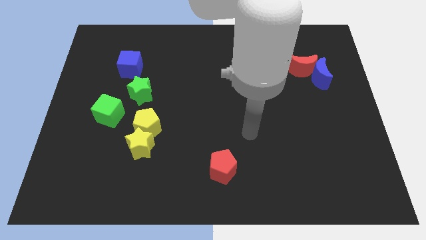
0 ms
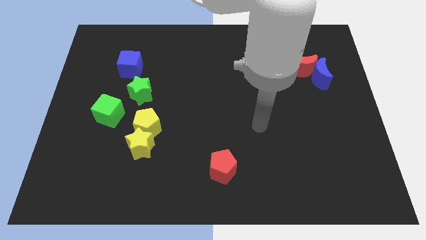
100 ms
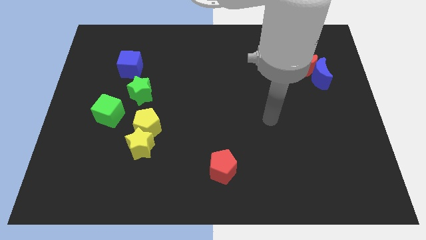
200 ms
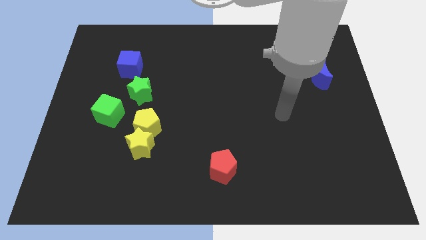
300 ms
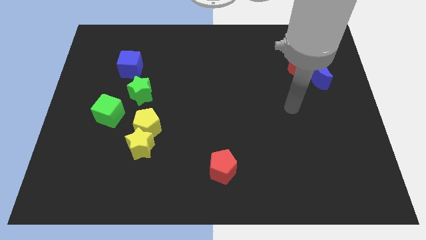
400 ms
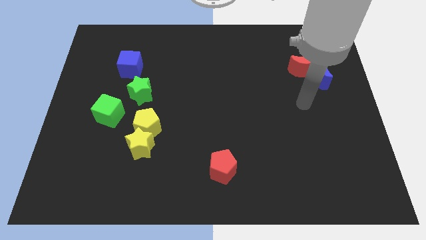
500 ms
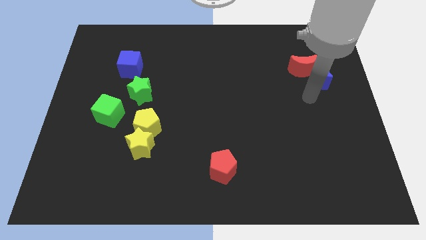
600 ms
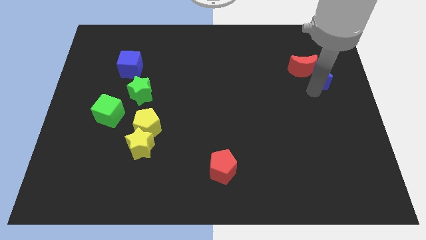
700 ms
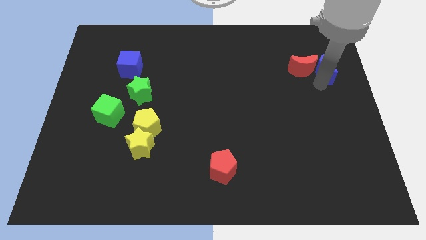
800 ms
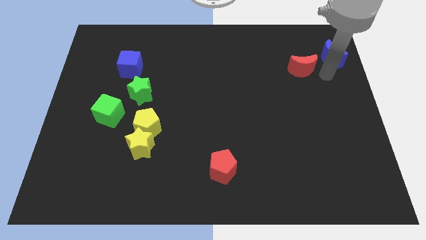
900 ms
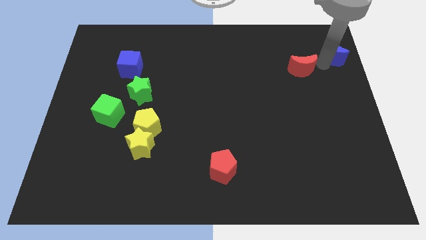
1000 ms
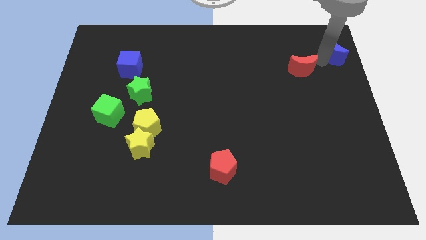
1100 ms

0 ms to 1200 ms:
pull the red moon apart from the blue moon

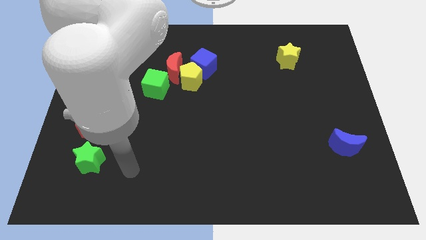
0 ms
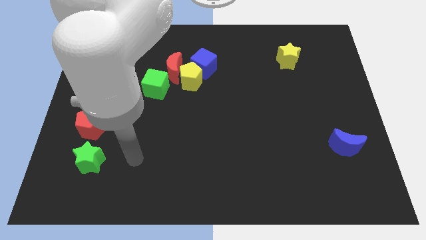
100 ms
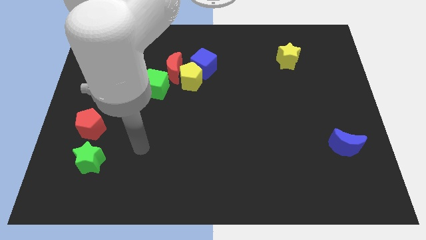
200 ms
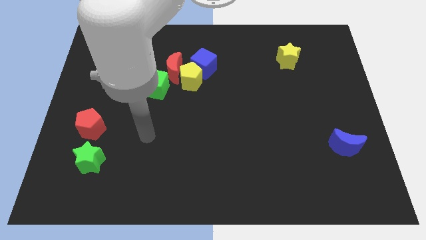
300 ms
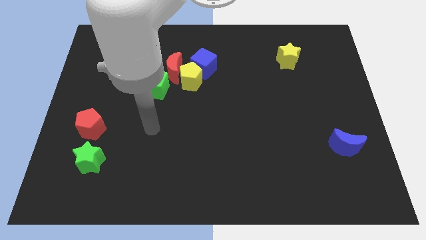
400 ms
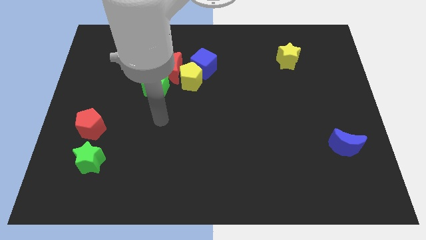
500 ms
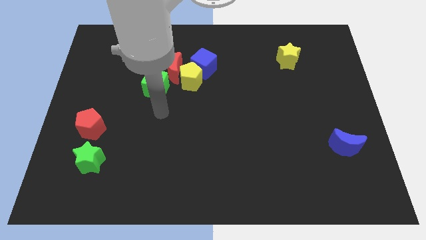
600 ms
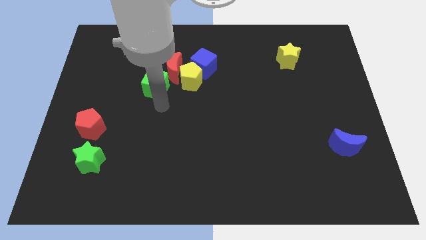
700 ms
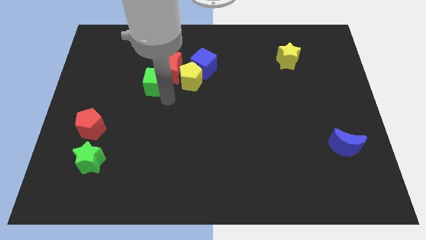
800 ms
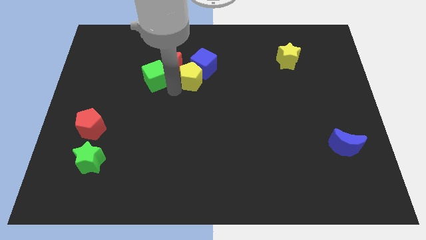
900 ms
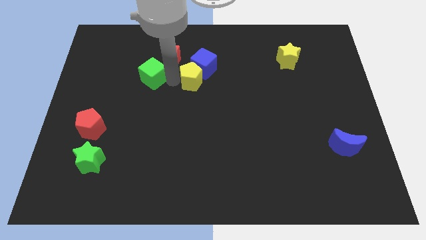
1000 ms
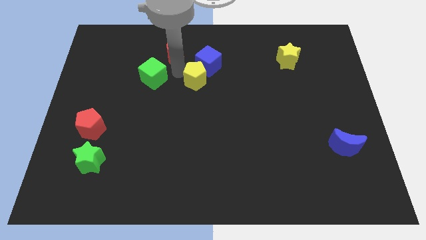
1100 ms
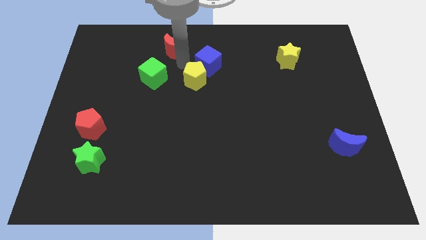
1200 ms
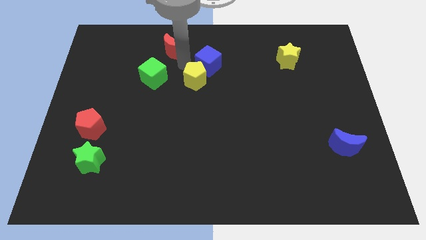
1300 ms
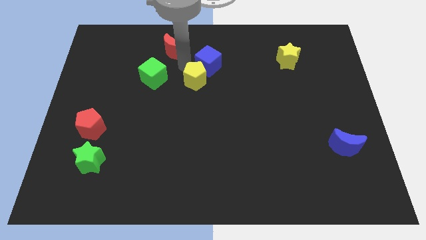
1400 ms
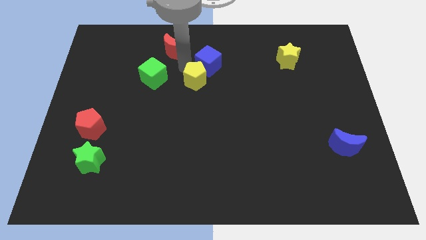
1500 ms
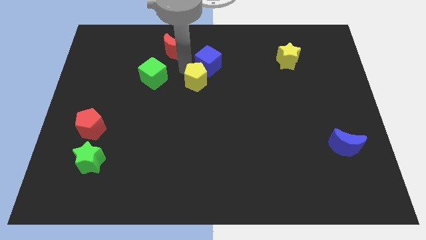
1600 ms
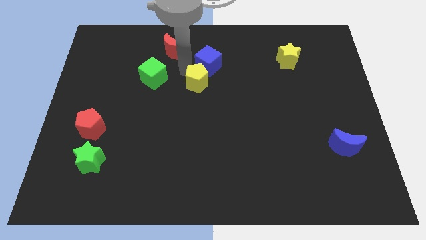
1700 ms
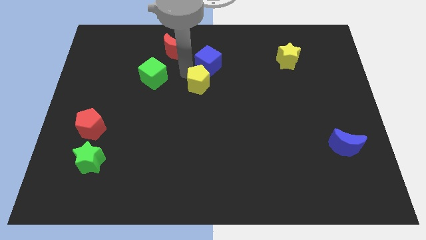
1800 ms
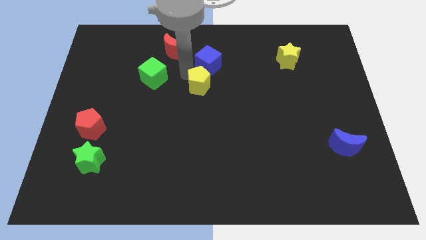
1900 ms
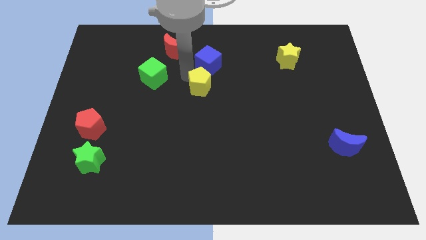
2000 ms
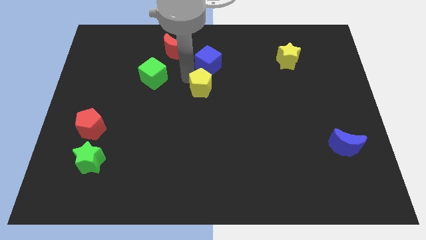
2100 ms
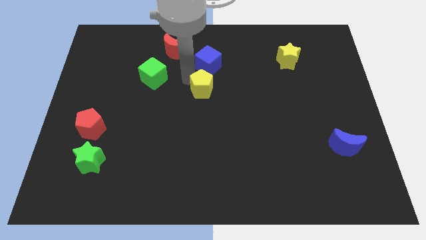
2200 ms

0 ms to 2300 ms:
separate the yellow pentagon from the clump

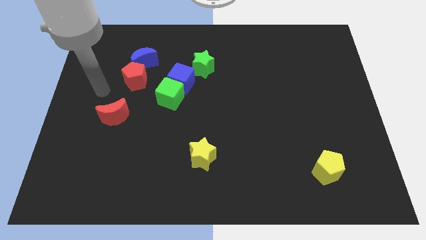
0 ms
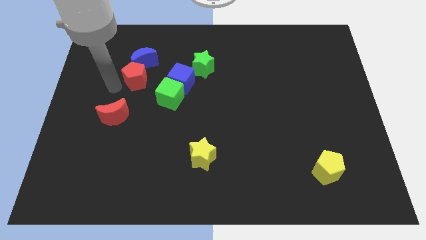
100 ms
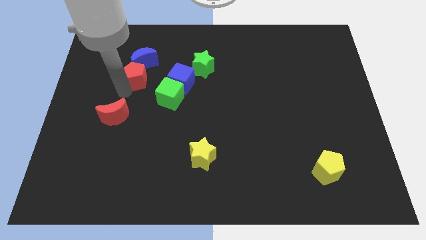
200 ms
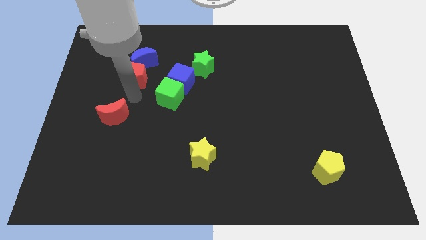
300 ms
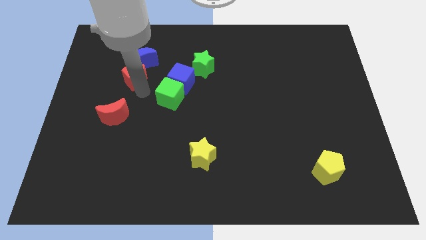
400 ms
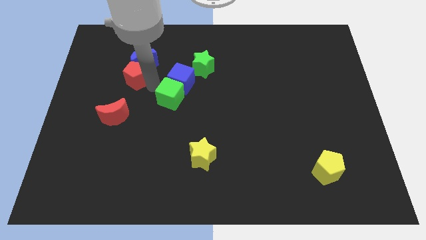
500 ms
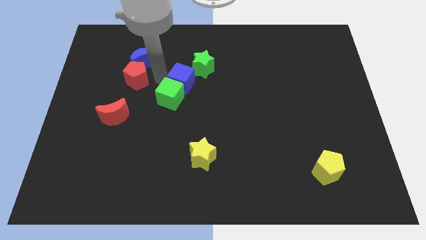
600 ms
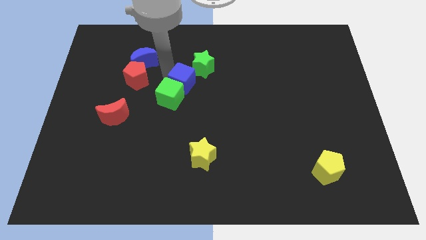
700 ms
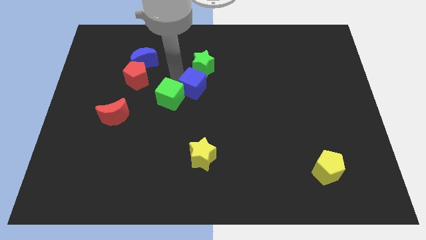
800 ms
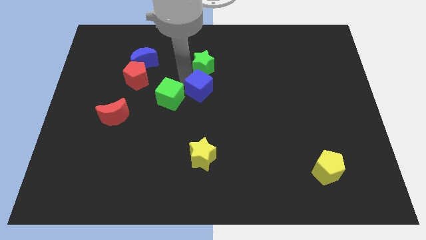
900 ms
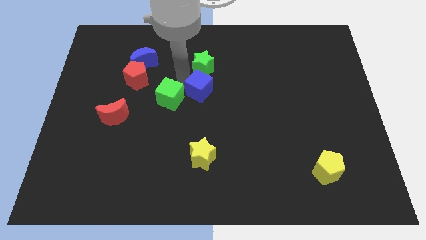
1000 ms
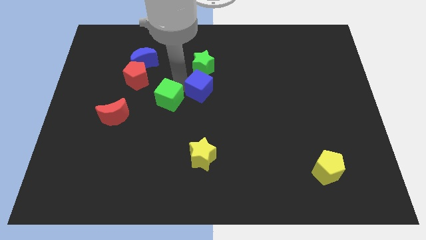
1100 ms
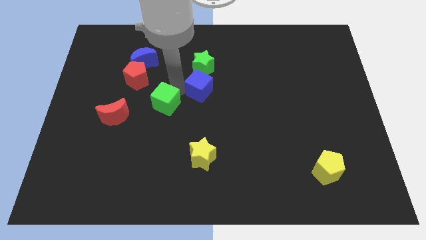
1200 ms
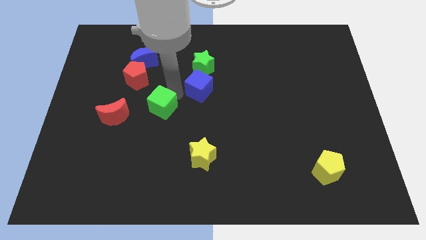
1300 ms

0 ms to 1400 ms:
separate the green cube from the blue cube

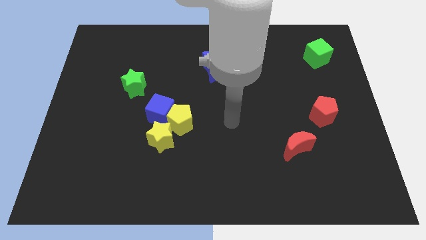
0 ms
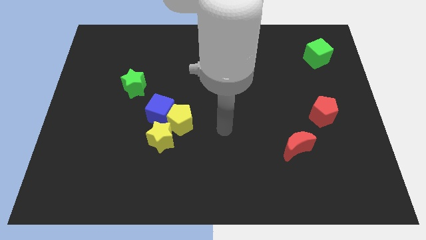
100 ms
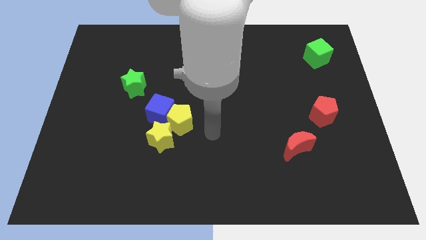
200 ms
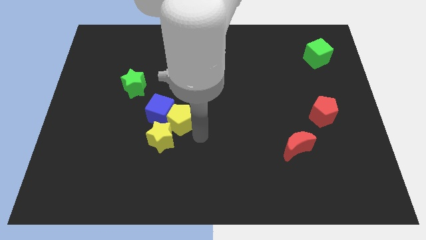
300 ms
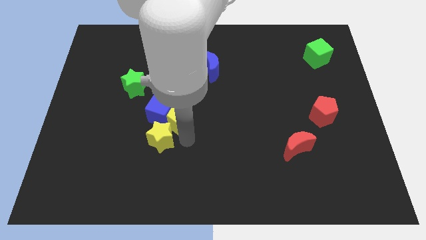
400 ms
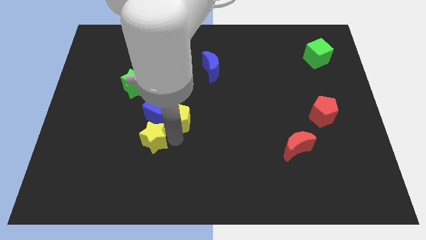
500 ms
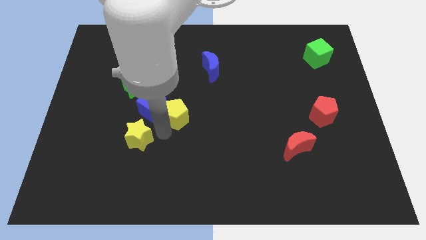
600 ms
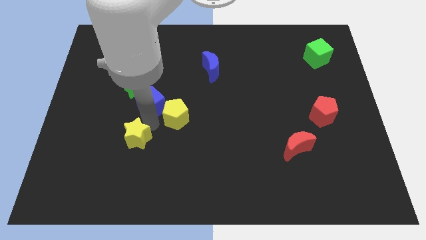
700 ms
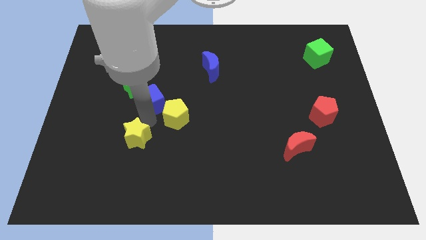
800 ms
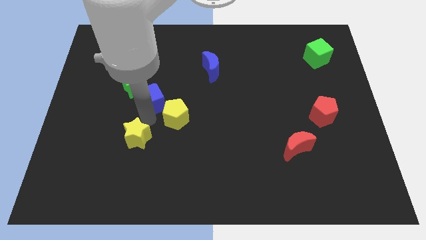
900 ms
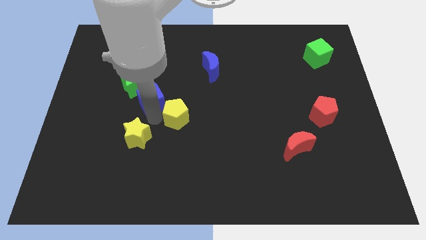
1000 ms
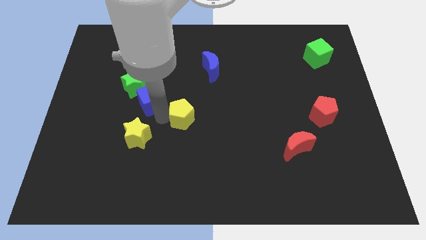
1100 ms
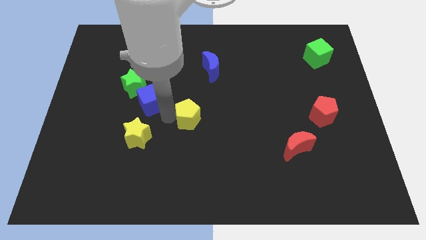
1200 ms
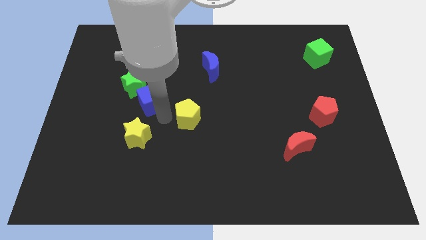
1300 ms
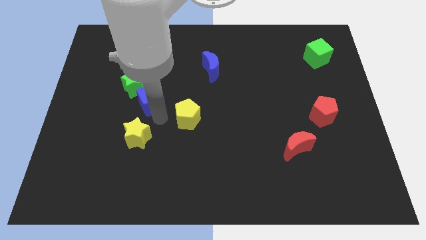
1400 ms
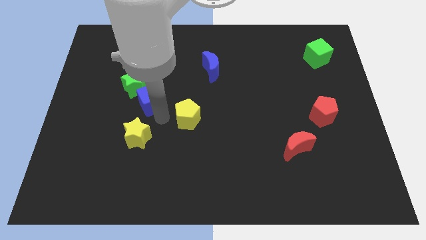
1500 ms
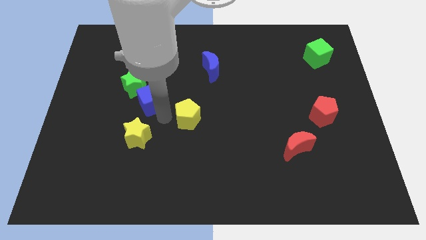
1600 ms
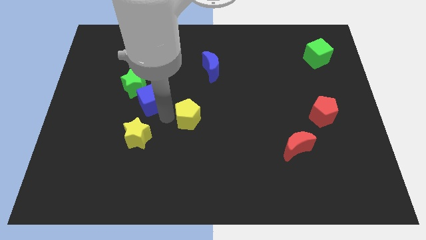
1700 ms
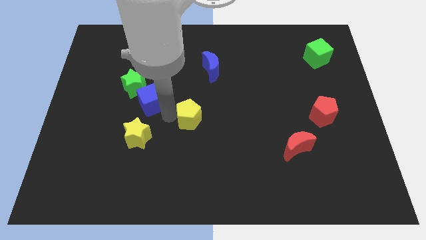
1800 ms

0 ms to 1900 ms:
move the yellow pentagon away from the blue cube and yellow star

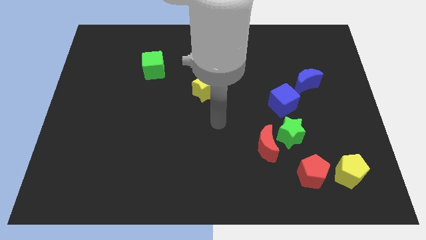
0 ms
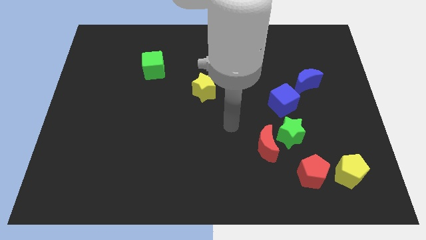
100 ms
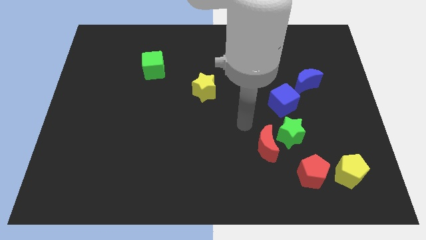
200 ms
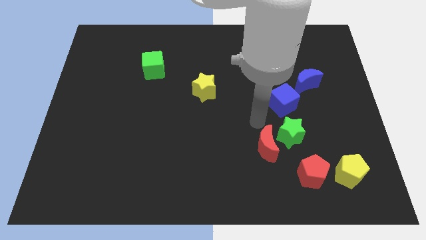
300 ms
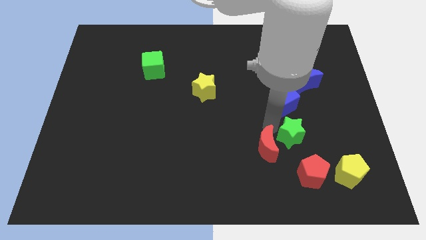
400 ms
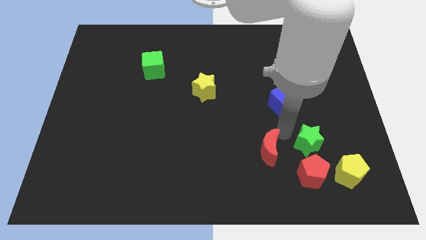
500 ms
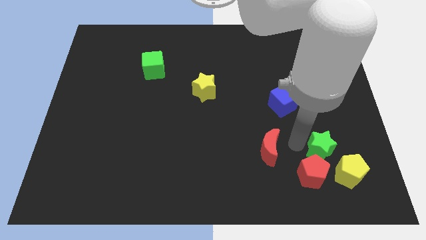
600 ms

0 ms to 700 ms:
separate the red moon from the green star

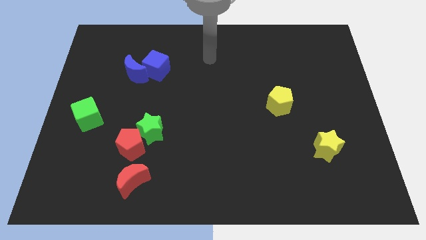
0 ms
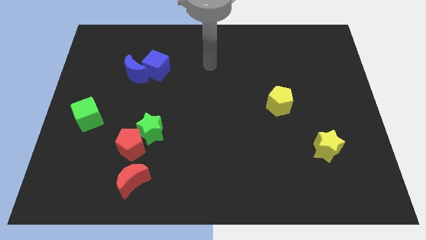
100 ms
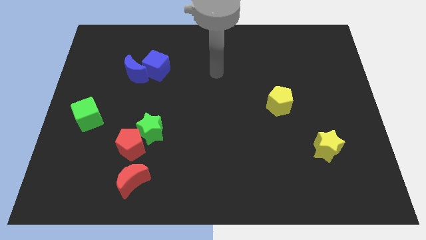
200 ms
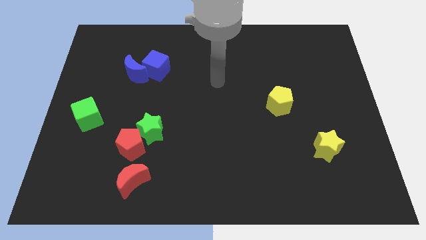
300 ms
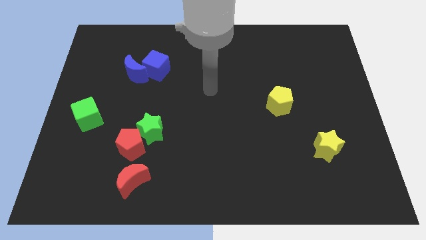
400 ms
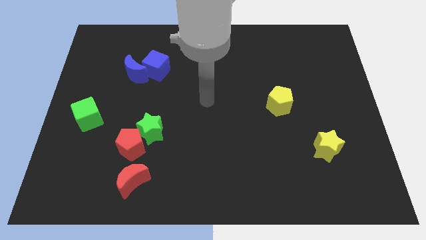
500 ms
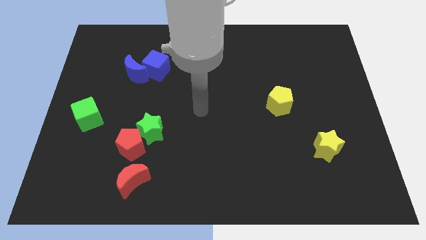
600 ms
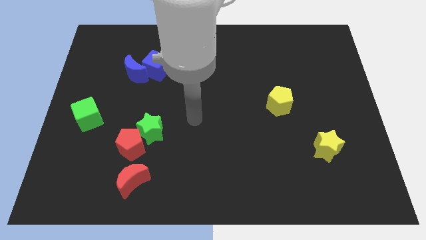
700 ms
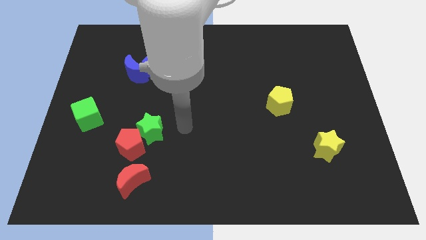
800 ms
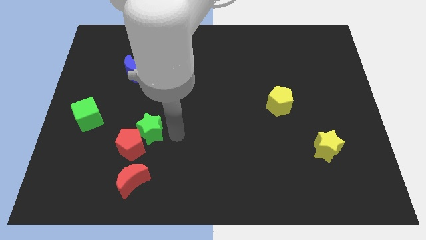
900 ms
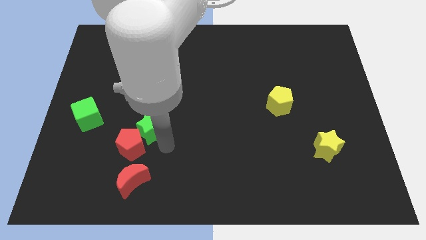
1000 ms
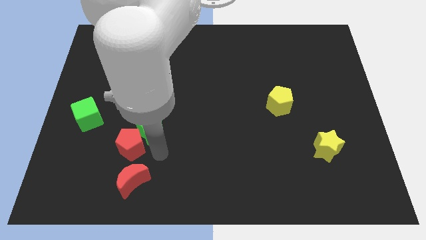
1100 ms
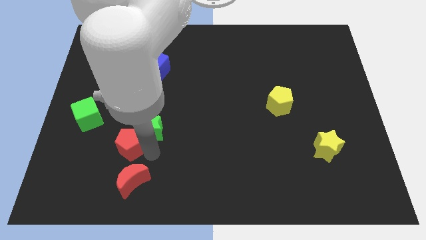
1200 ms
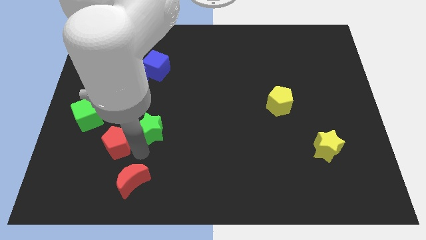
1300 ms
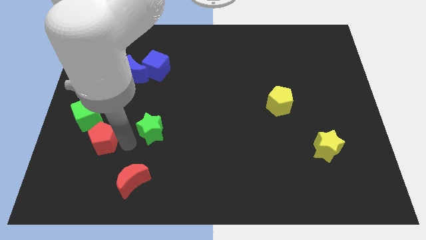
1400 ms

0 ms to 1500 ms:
move the green star away from the red pentagon

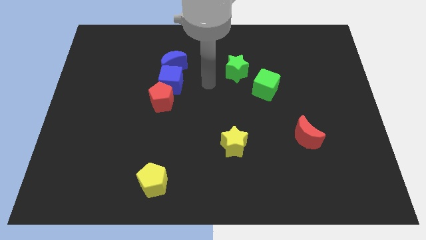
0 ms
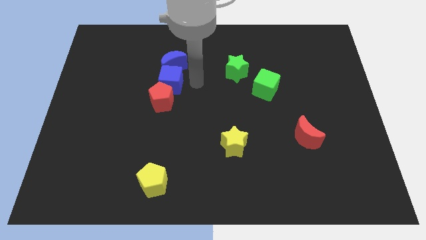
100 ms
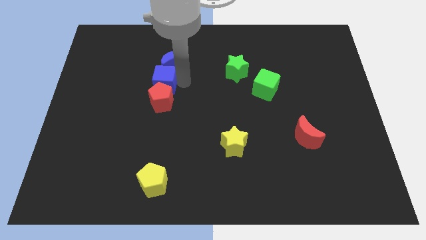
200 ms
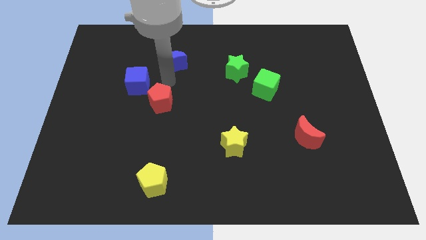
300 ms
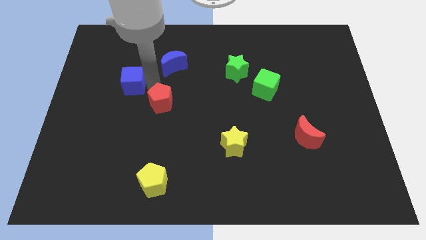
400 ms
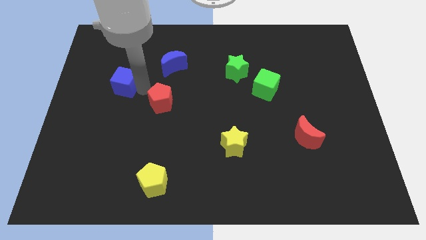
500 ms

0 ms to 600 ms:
pull the red pentagon apart from the blue cube
